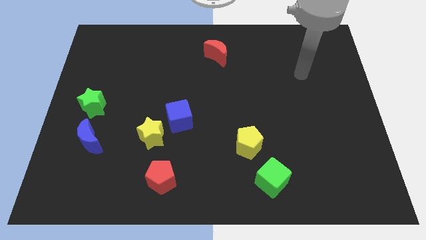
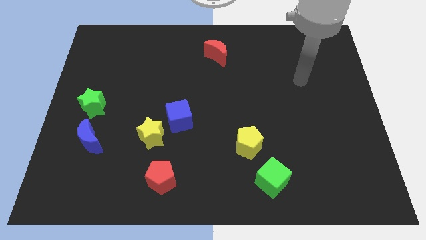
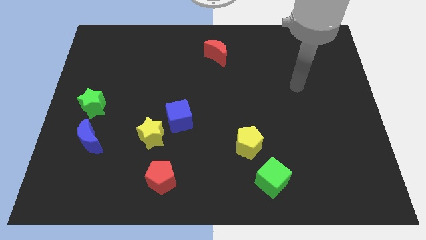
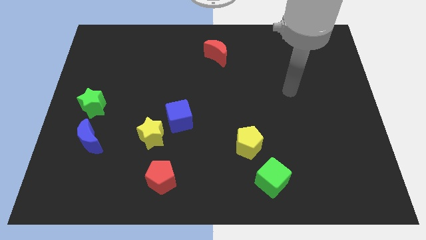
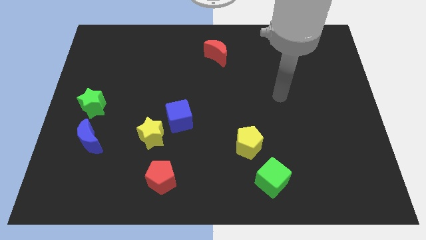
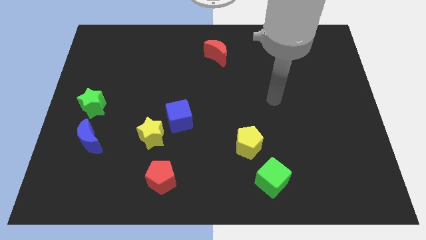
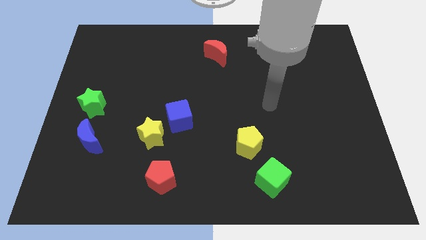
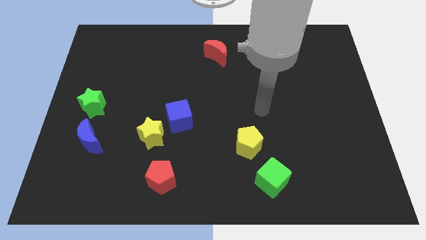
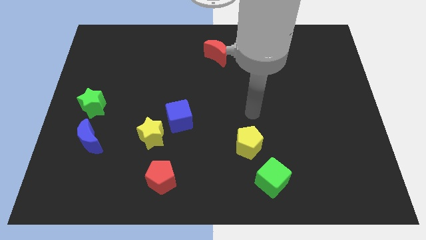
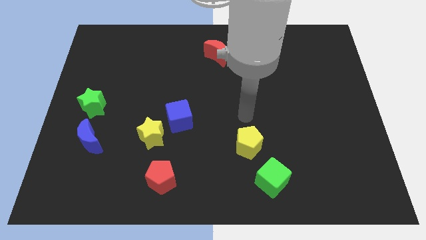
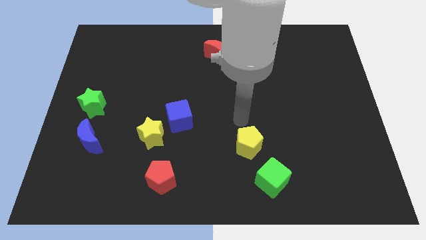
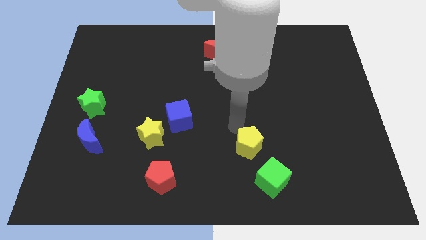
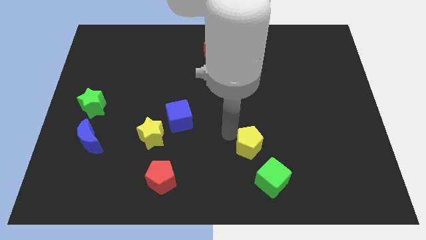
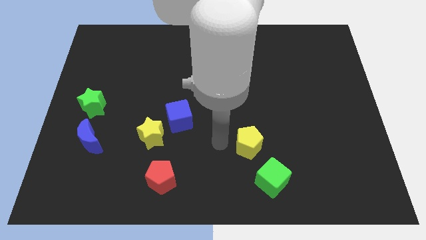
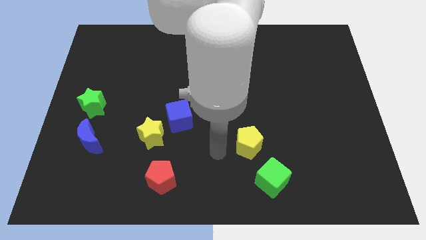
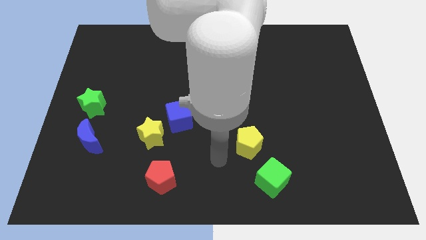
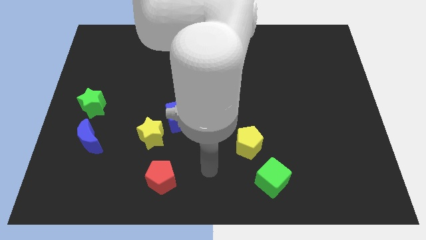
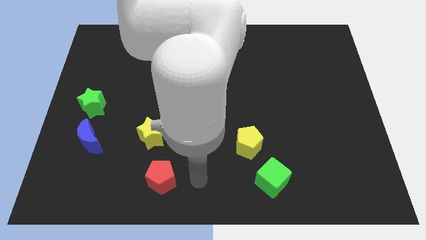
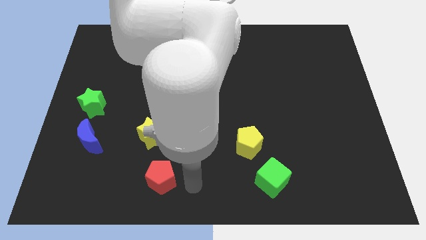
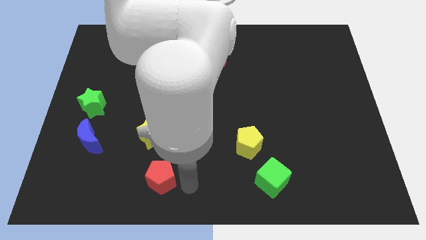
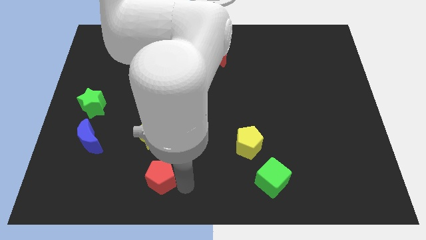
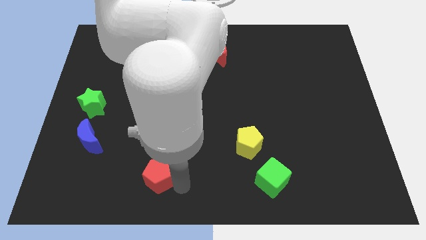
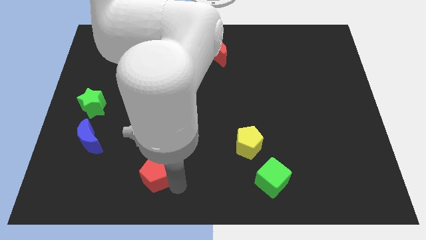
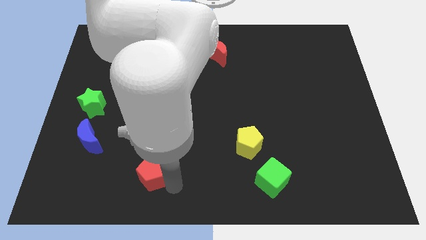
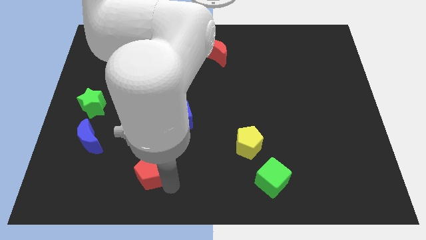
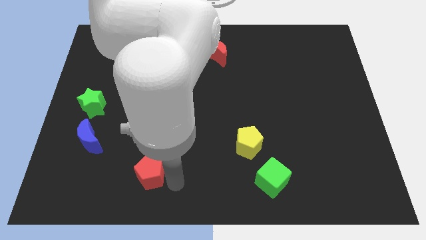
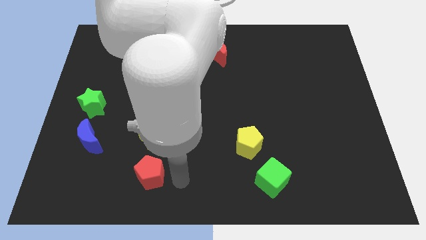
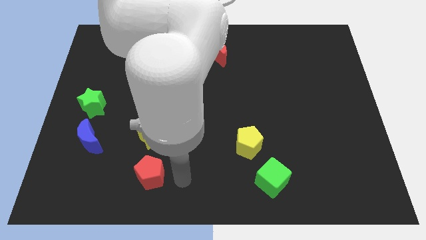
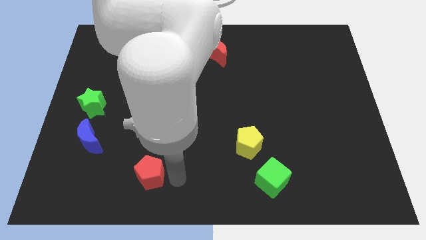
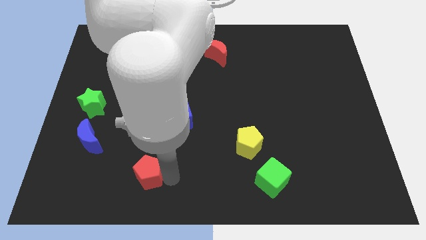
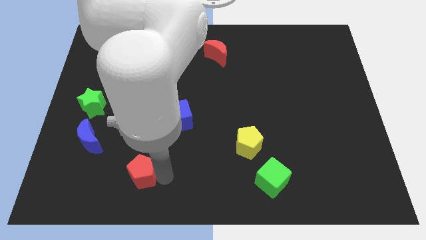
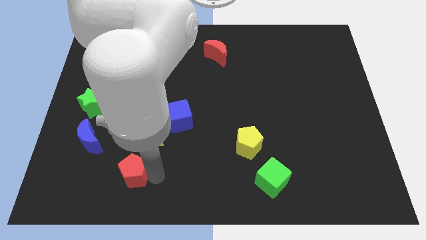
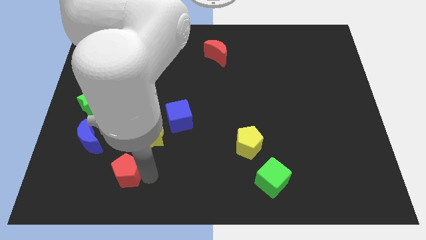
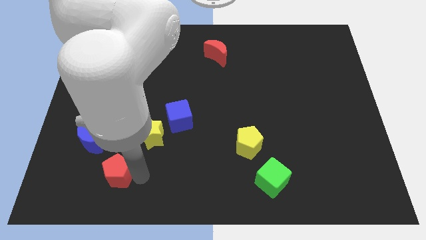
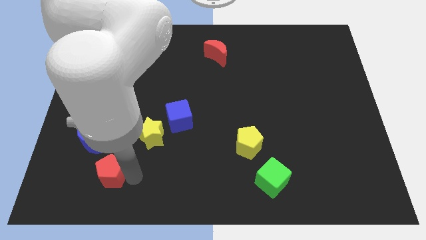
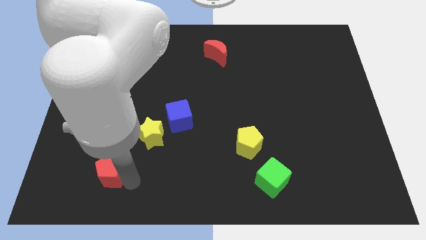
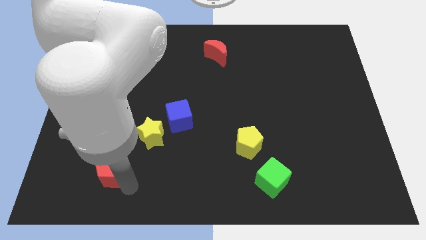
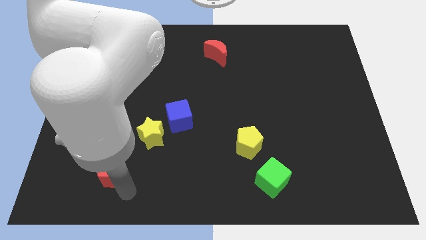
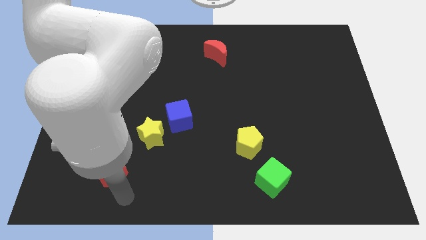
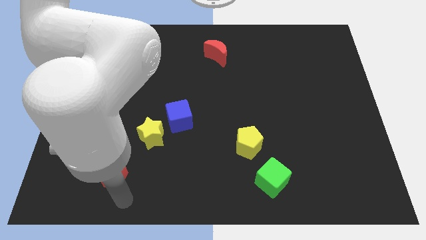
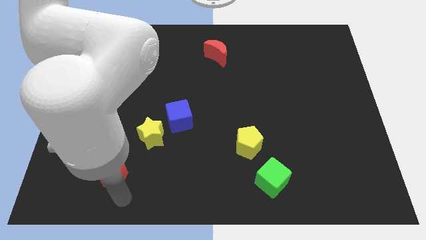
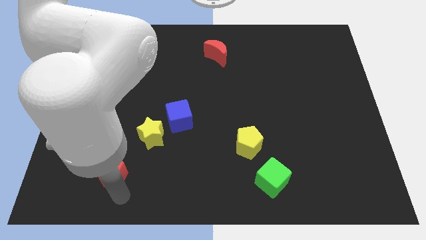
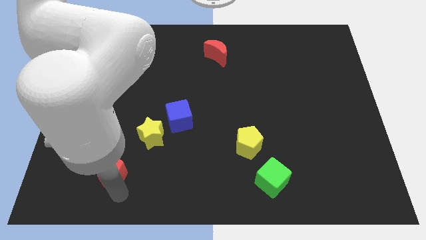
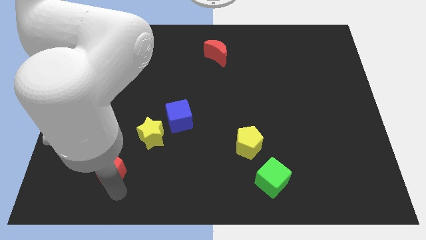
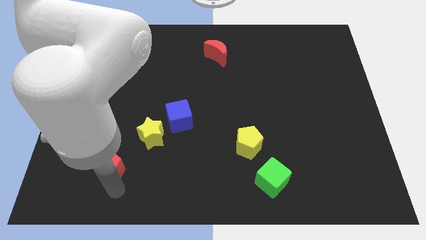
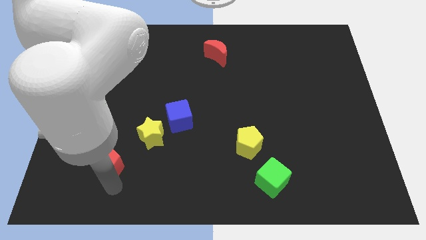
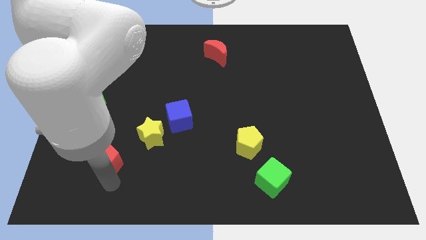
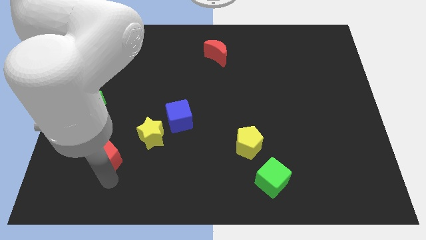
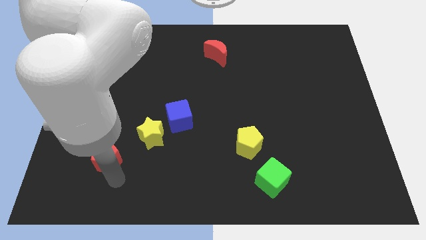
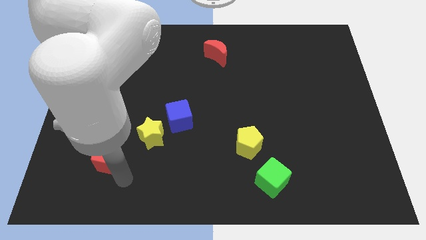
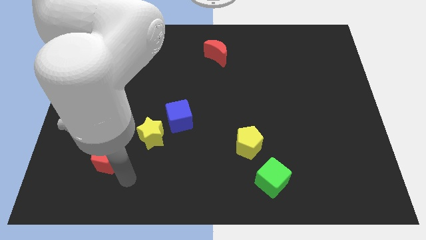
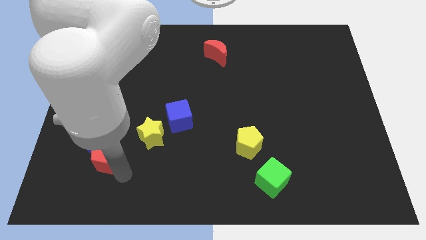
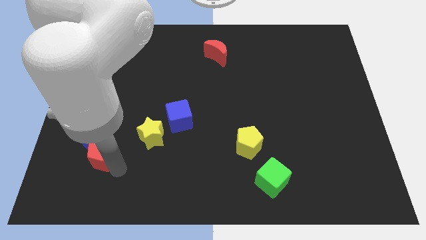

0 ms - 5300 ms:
move the red pentagon next to the blue moon

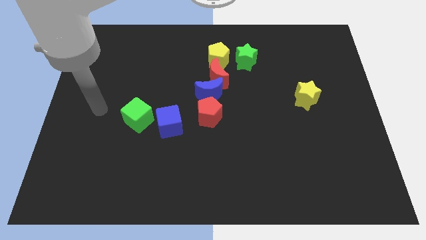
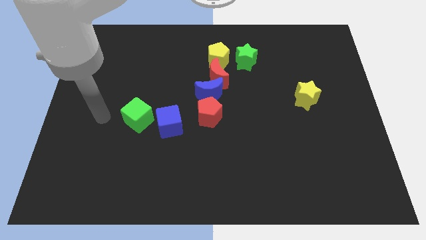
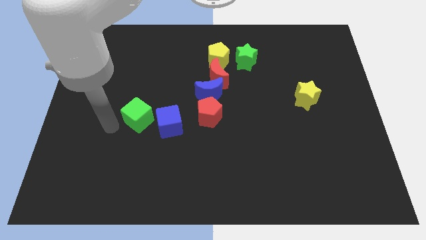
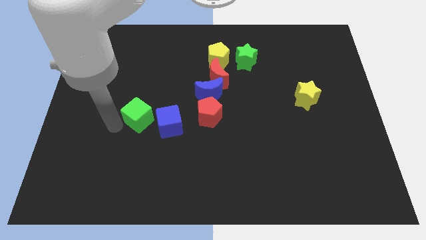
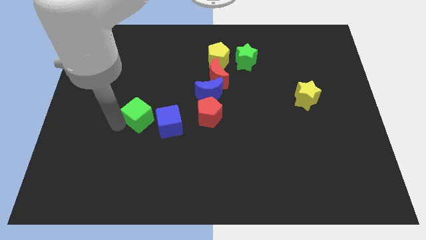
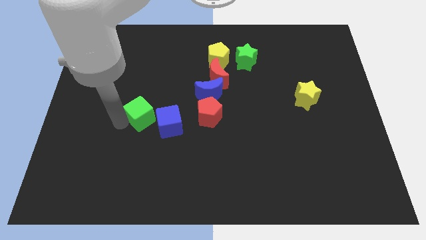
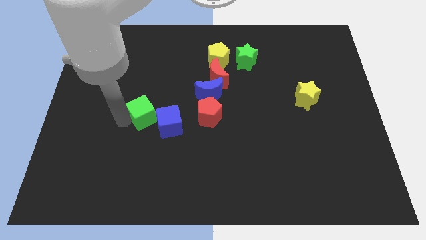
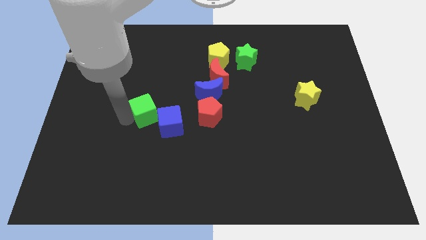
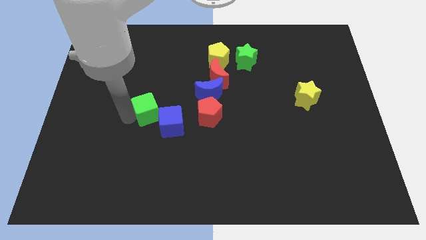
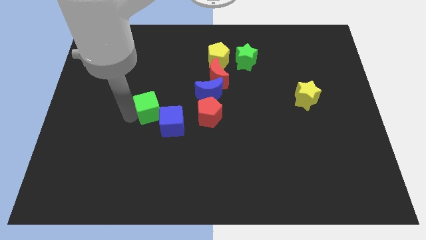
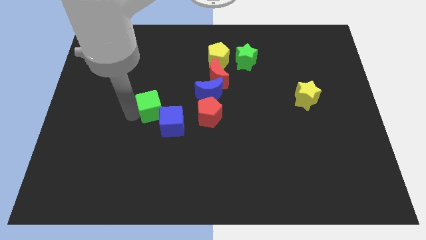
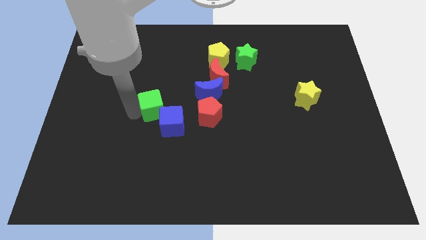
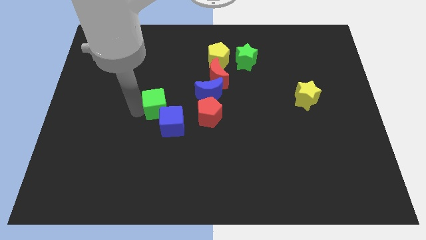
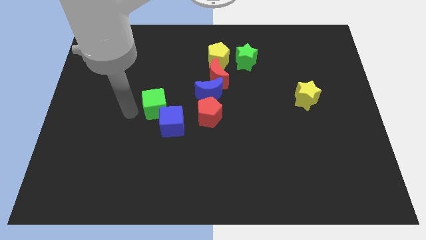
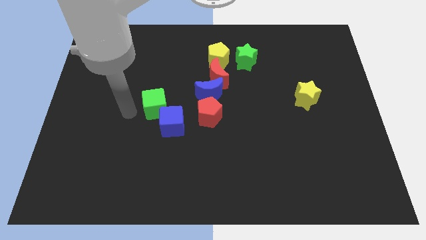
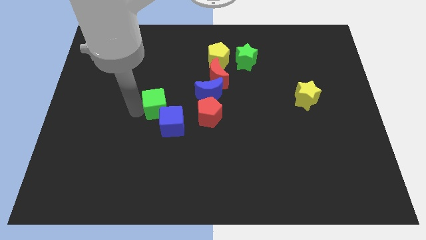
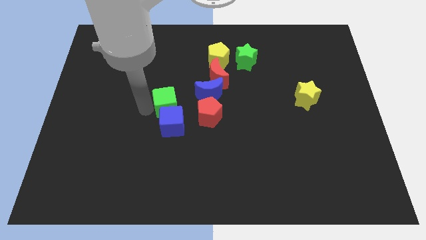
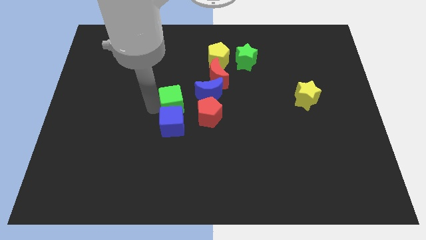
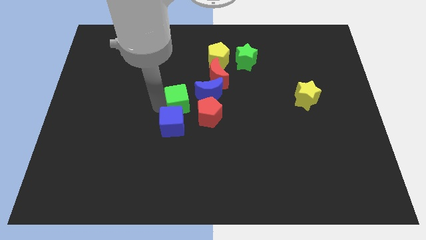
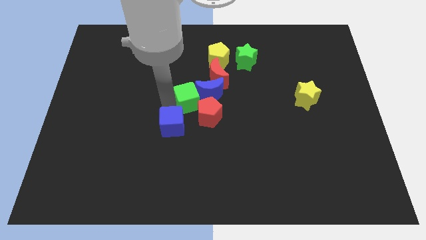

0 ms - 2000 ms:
put the green cube to the blue moon

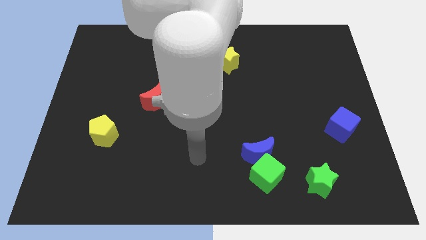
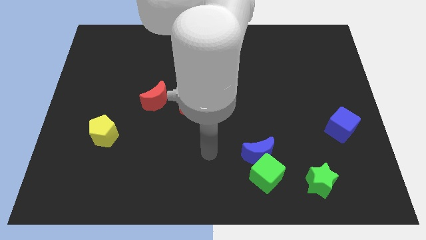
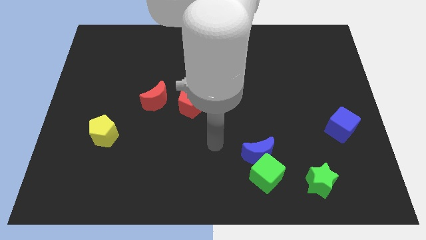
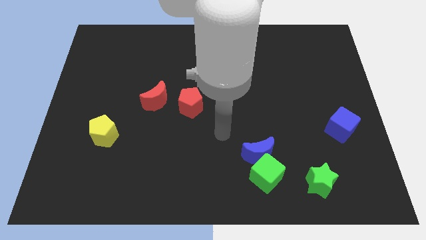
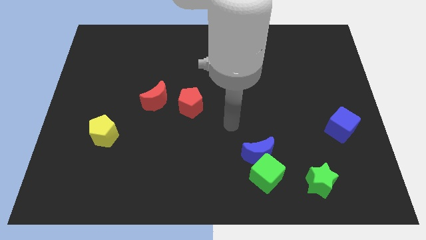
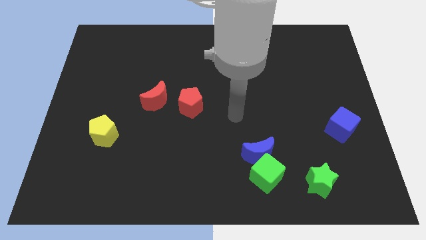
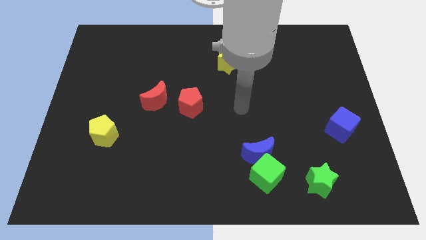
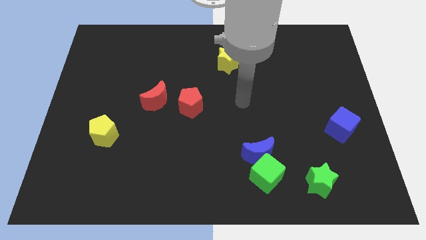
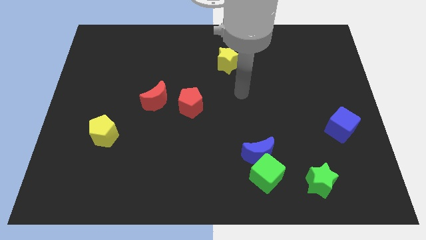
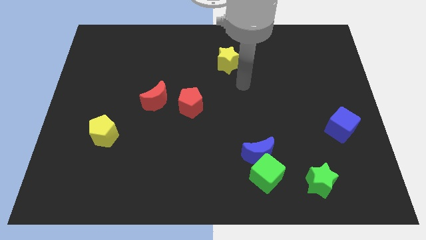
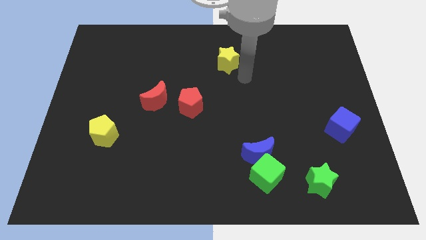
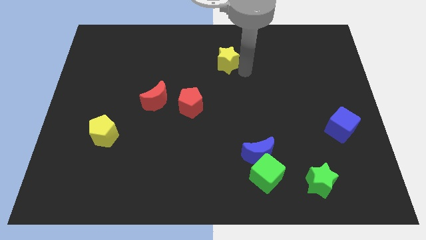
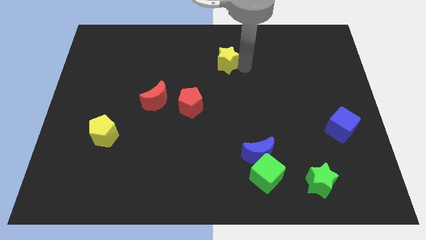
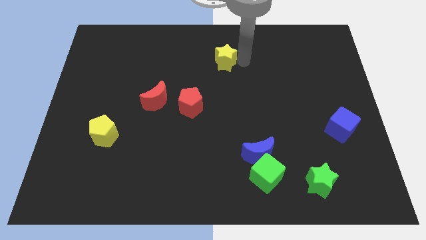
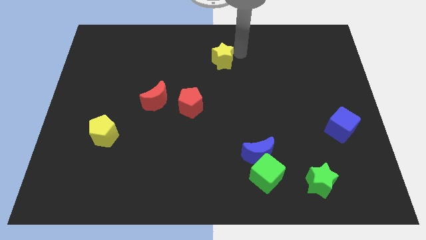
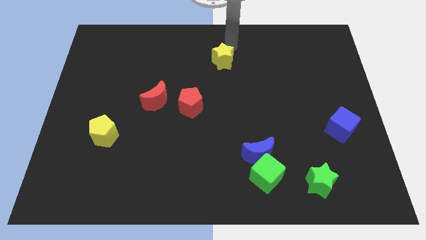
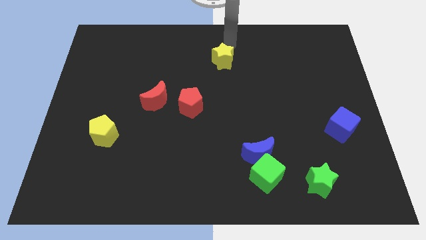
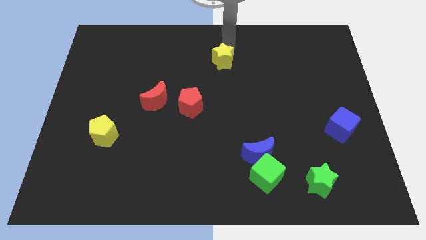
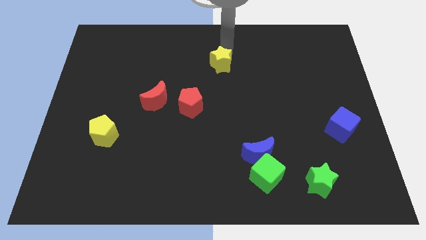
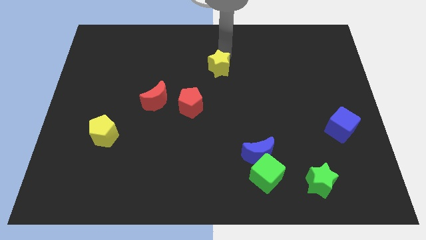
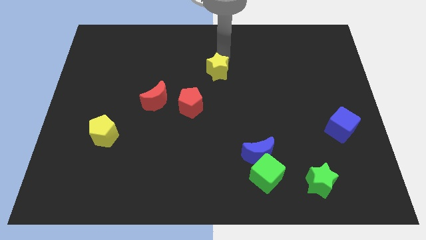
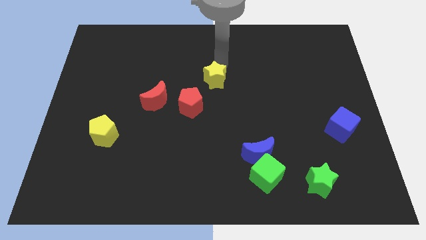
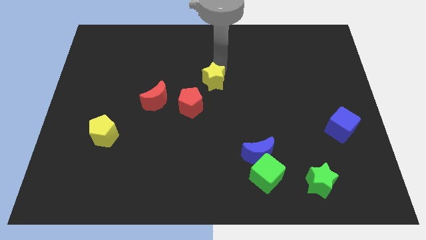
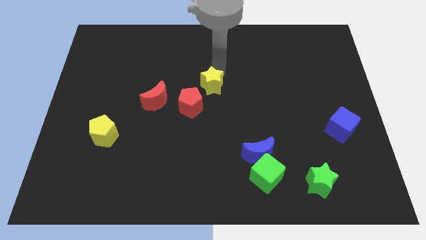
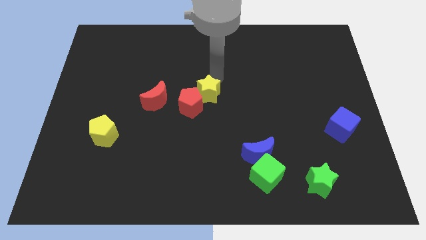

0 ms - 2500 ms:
slide the yellow star next to the red pentagon
